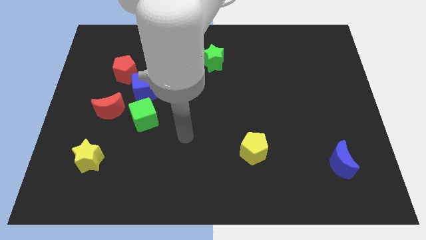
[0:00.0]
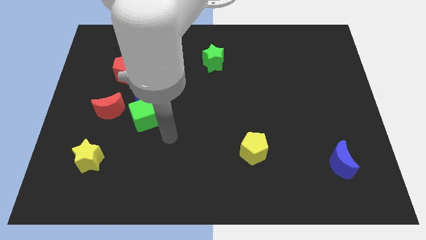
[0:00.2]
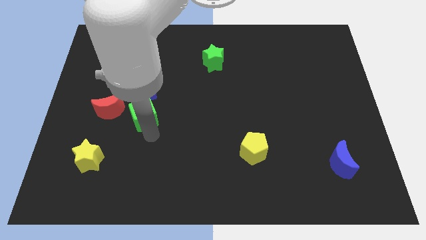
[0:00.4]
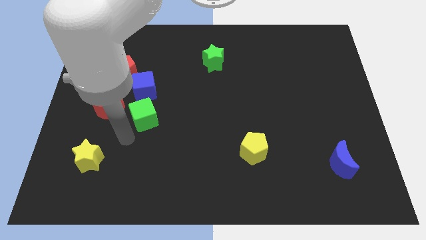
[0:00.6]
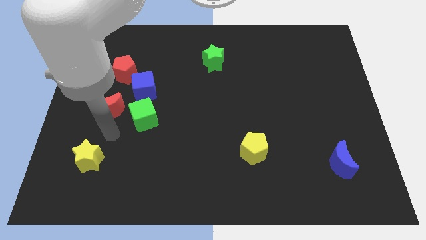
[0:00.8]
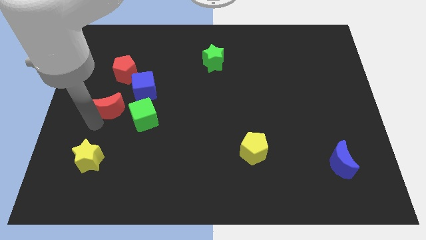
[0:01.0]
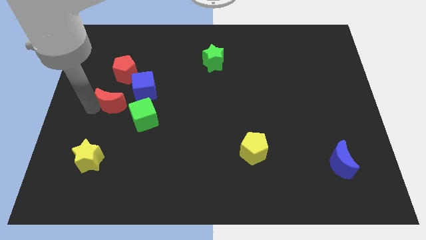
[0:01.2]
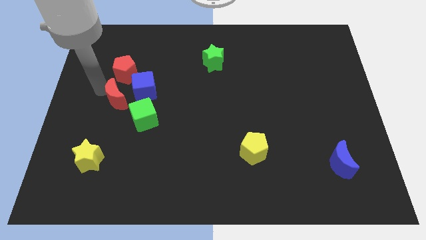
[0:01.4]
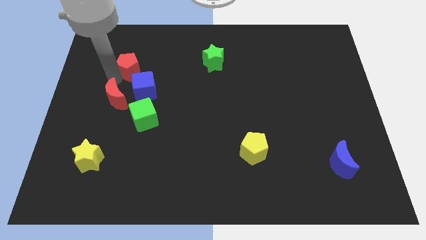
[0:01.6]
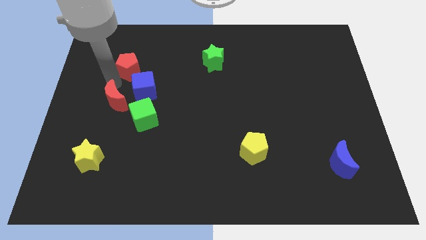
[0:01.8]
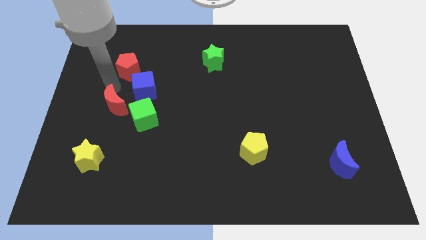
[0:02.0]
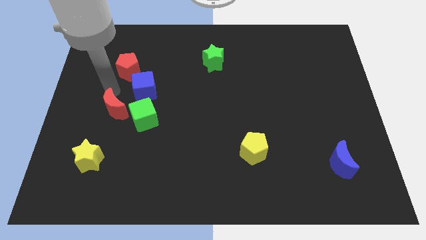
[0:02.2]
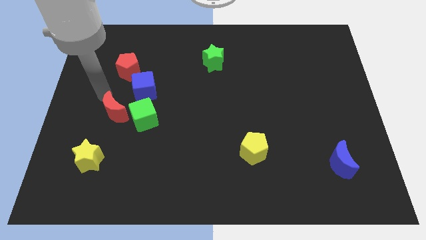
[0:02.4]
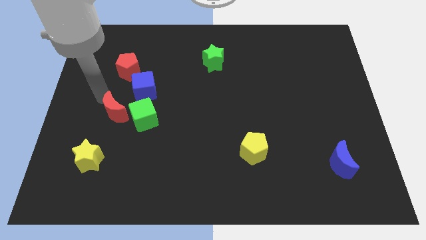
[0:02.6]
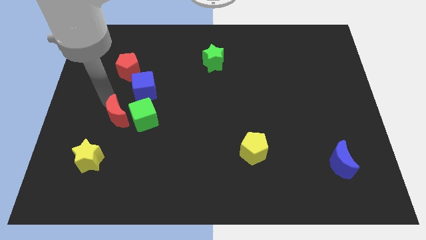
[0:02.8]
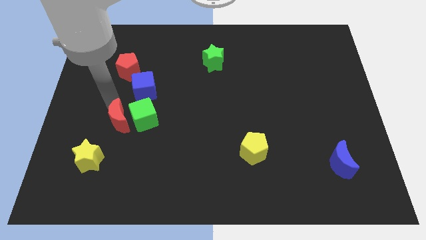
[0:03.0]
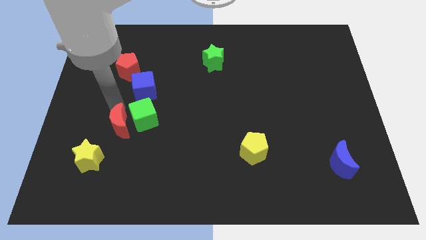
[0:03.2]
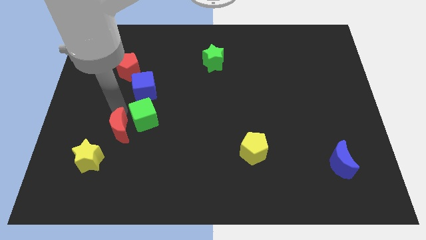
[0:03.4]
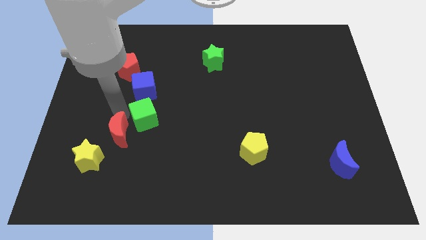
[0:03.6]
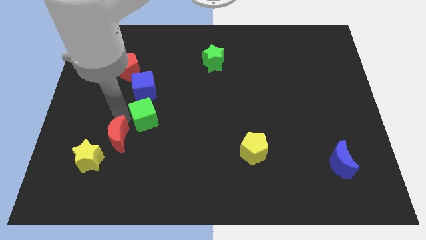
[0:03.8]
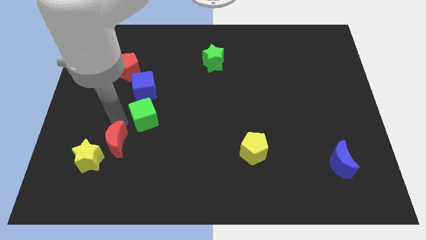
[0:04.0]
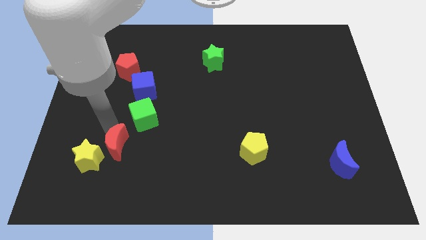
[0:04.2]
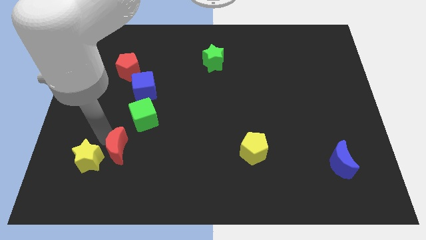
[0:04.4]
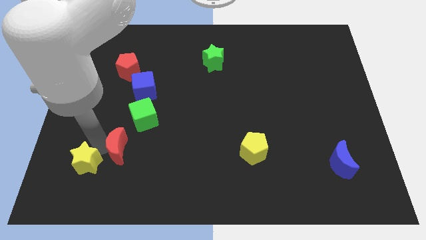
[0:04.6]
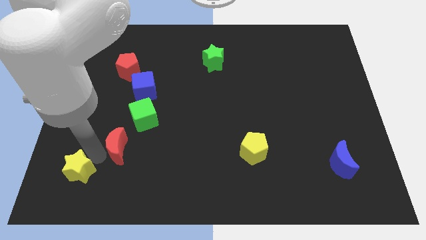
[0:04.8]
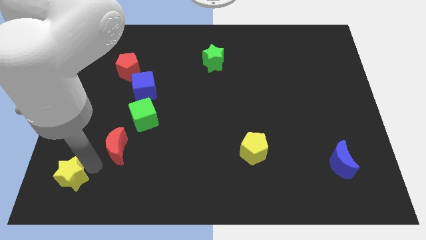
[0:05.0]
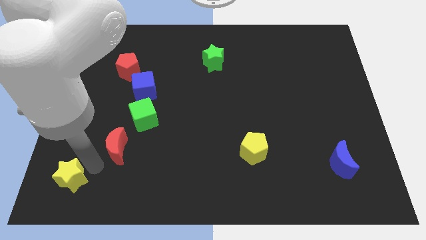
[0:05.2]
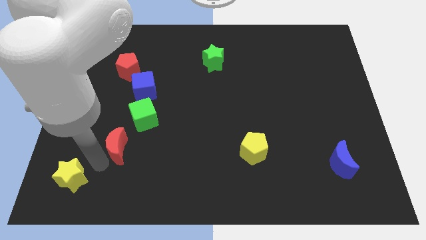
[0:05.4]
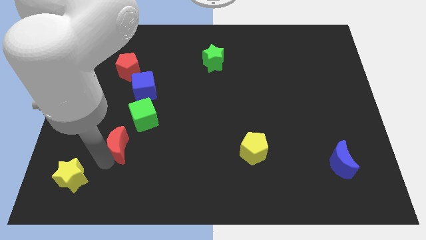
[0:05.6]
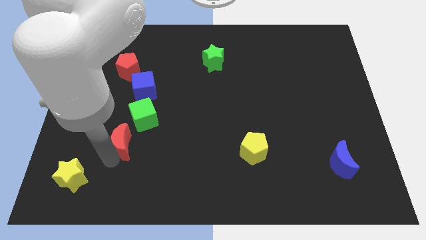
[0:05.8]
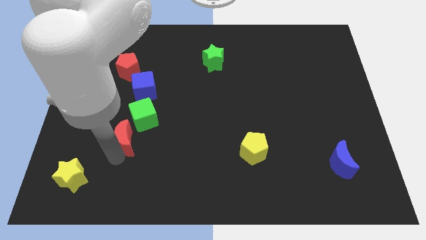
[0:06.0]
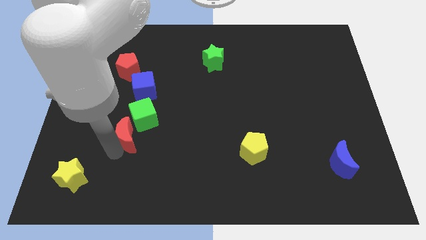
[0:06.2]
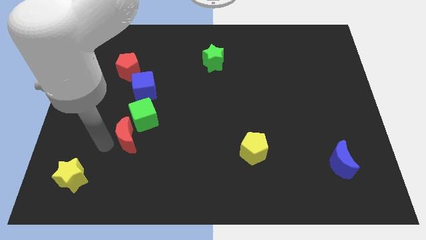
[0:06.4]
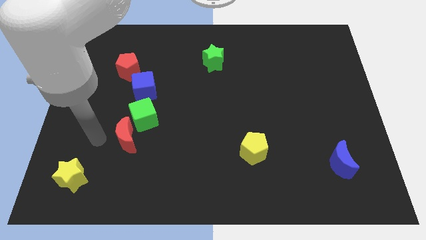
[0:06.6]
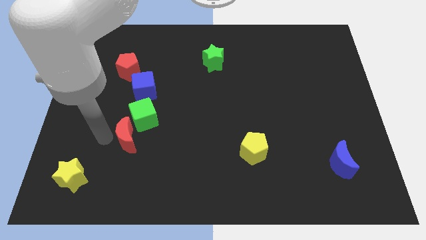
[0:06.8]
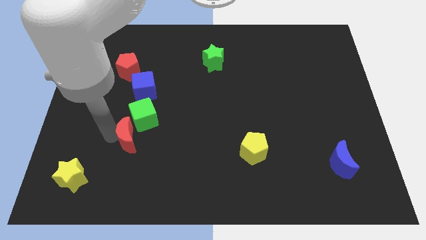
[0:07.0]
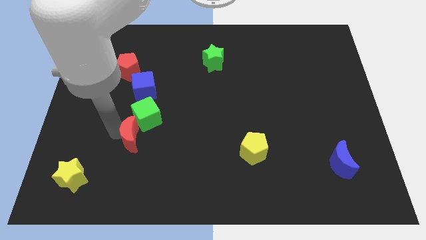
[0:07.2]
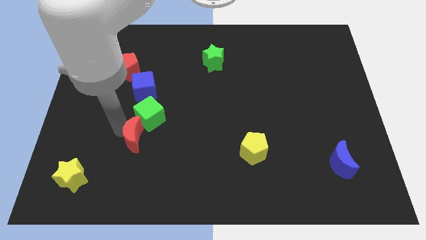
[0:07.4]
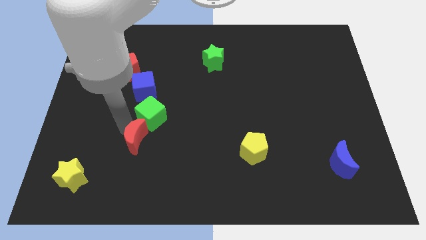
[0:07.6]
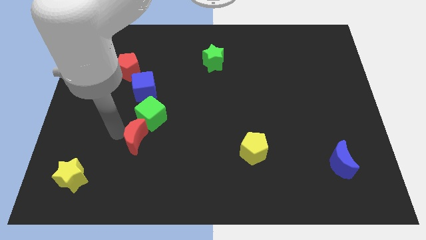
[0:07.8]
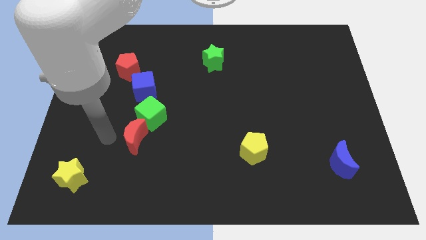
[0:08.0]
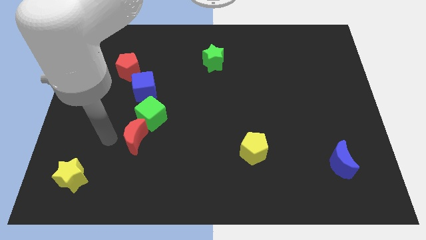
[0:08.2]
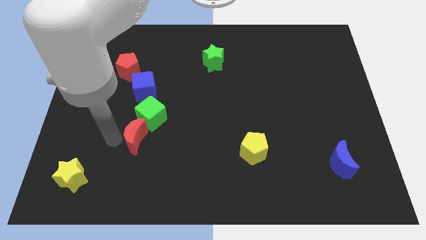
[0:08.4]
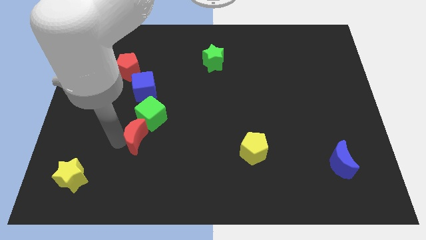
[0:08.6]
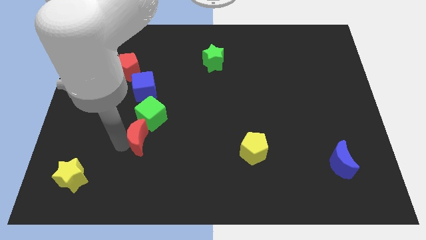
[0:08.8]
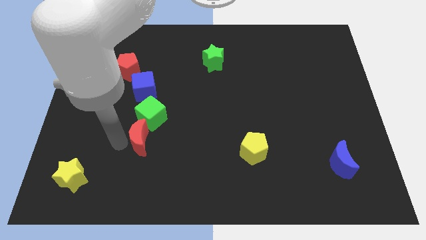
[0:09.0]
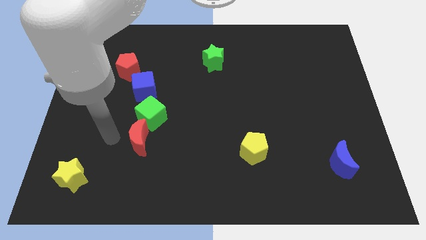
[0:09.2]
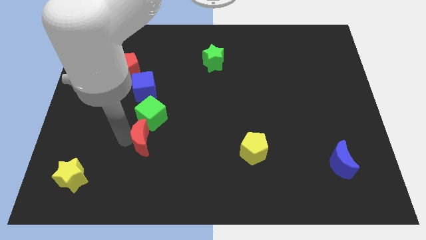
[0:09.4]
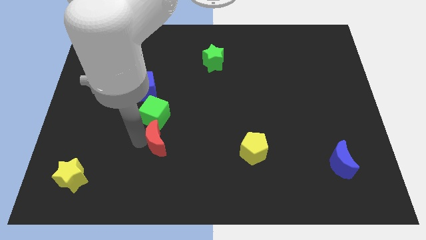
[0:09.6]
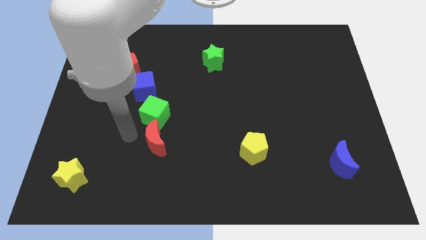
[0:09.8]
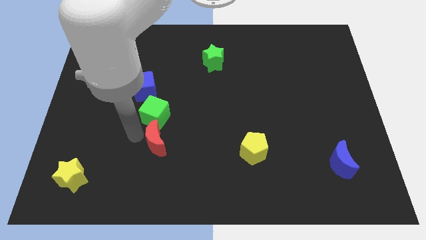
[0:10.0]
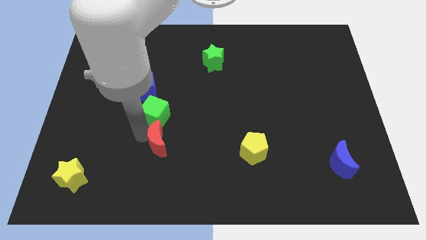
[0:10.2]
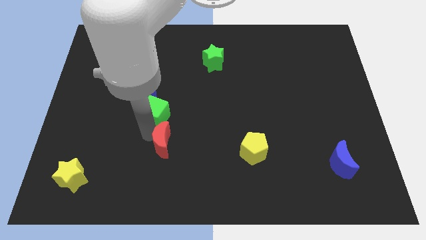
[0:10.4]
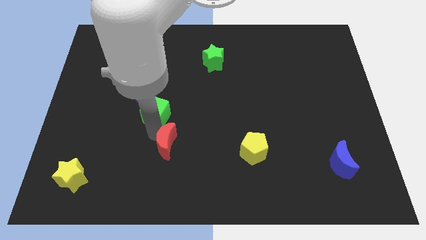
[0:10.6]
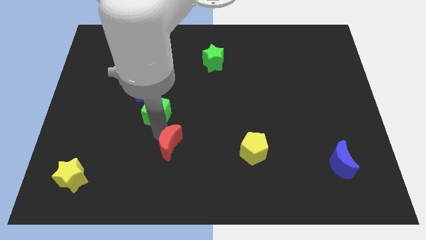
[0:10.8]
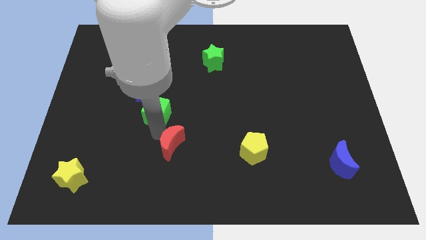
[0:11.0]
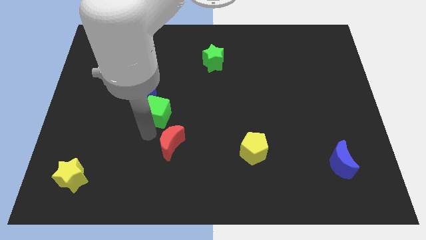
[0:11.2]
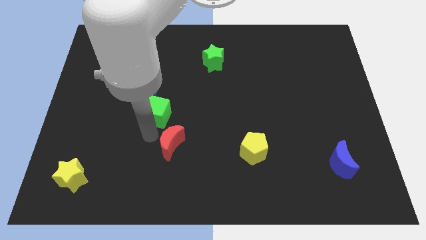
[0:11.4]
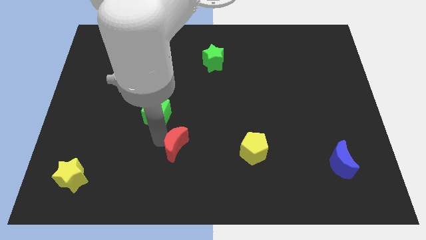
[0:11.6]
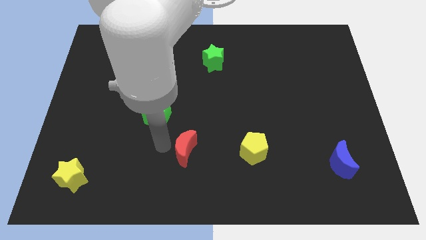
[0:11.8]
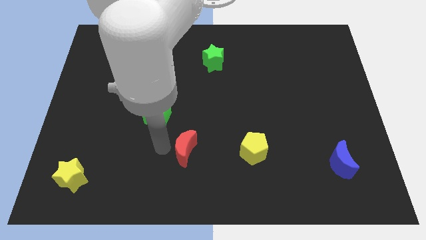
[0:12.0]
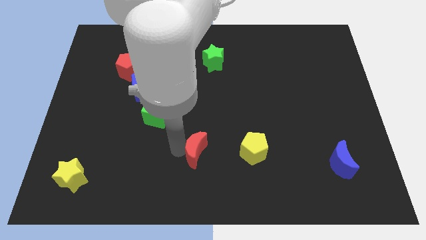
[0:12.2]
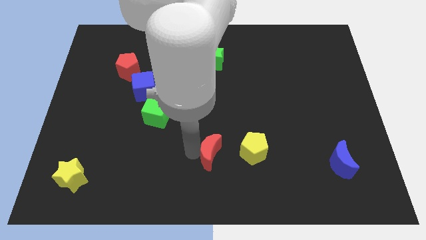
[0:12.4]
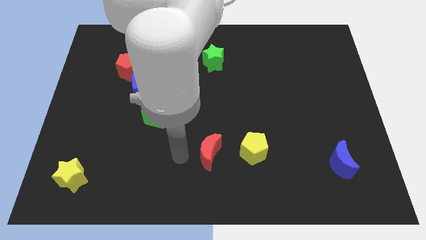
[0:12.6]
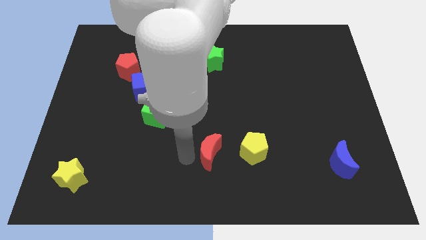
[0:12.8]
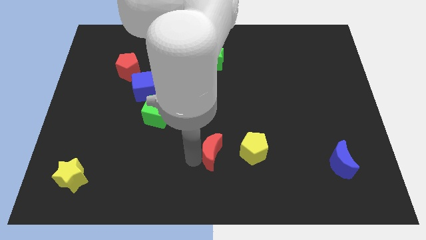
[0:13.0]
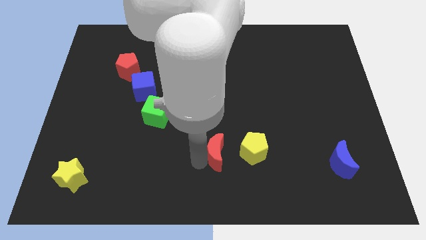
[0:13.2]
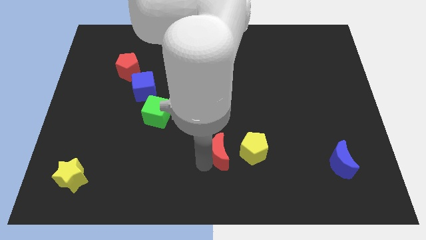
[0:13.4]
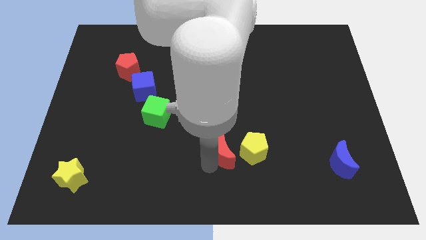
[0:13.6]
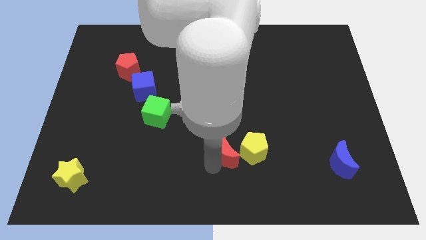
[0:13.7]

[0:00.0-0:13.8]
move the red moon towards the yellow pentagon

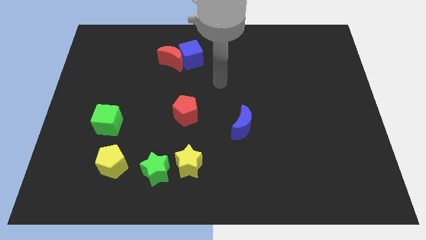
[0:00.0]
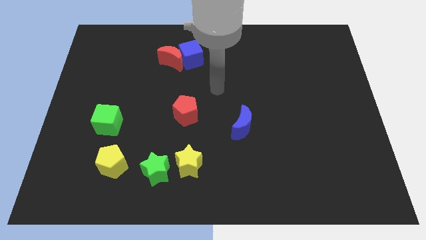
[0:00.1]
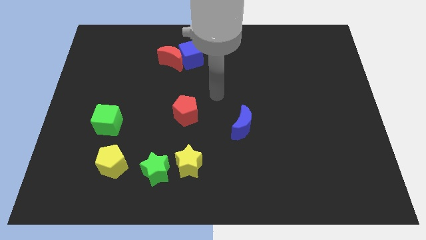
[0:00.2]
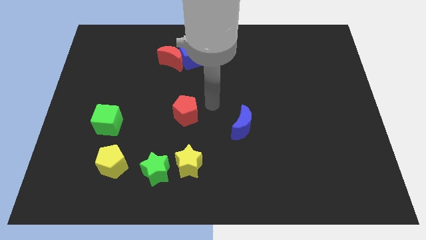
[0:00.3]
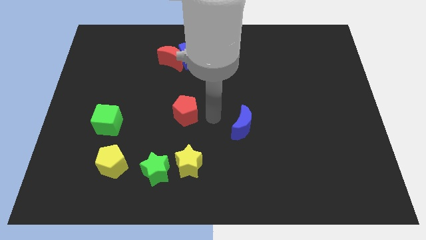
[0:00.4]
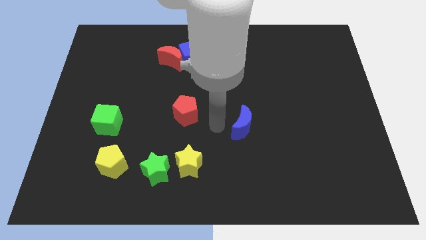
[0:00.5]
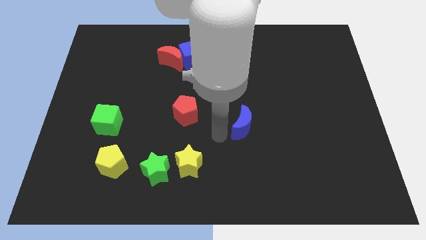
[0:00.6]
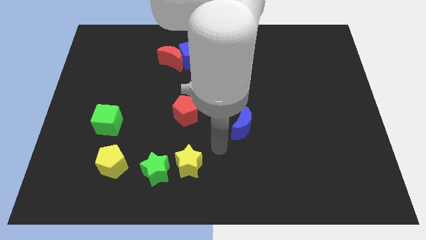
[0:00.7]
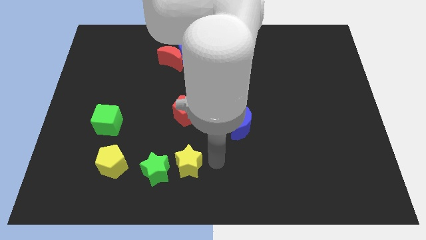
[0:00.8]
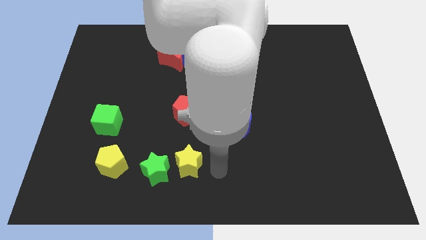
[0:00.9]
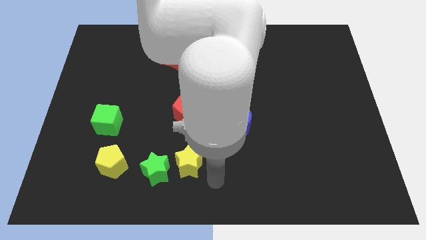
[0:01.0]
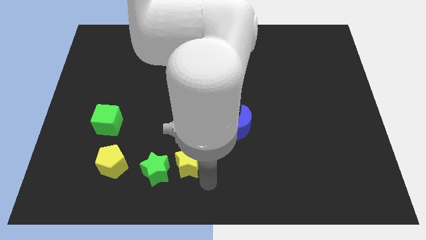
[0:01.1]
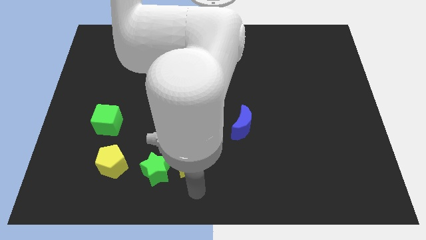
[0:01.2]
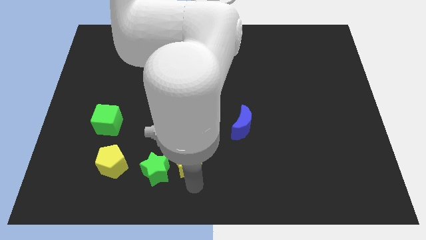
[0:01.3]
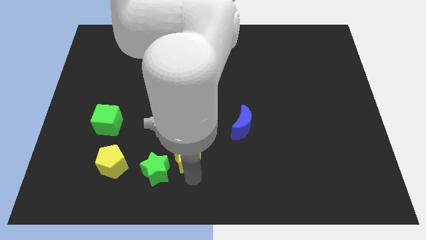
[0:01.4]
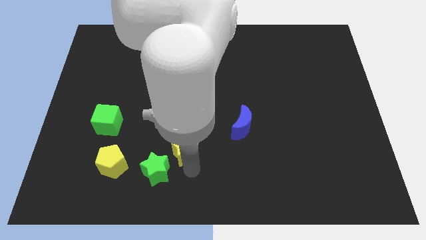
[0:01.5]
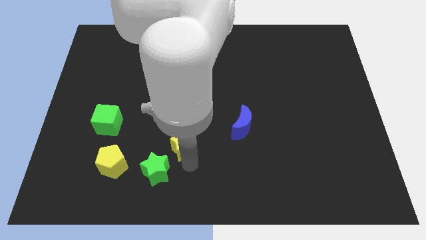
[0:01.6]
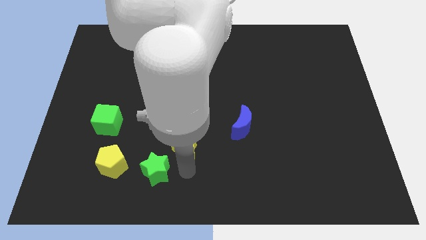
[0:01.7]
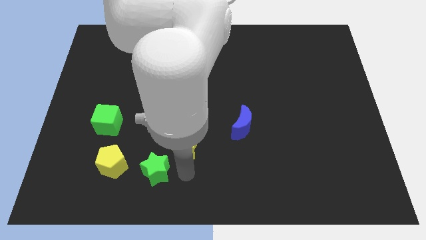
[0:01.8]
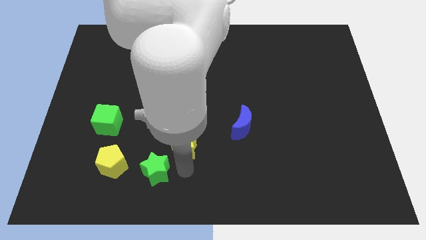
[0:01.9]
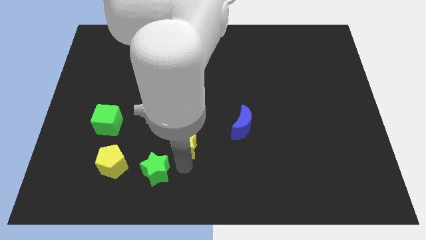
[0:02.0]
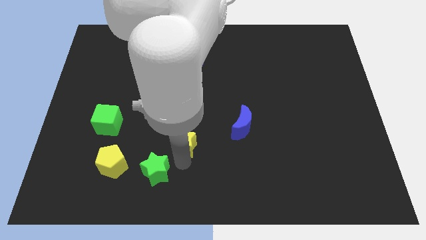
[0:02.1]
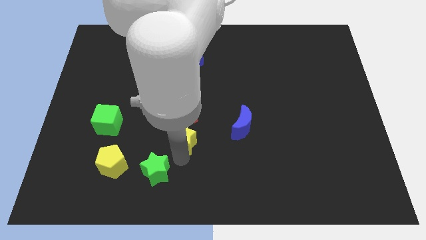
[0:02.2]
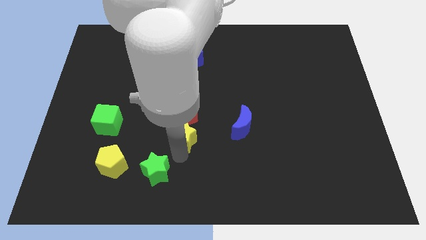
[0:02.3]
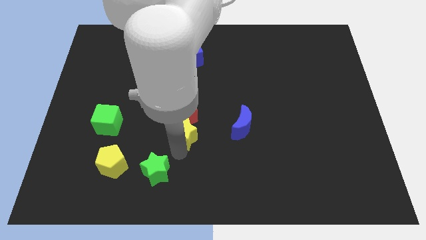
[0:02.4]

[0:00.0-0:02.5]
push the yellow star next to the red pentagon
